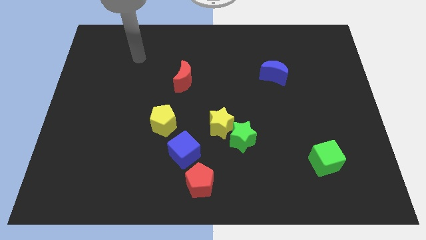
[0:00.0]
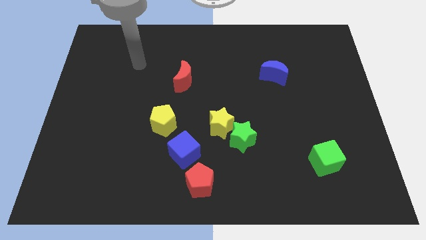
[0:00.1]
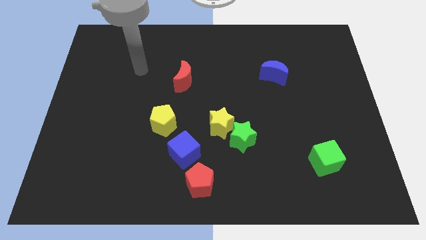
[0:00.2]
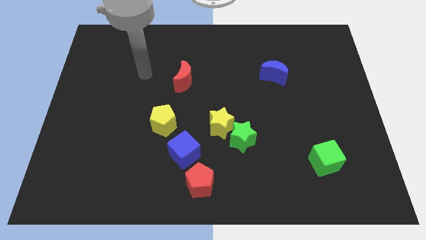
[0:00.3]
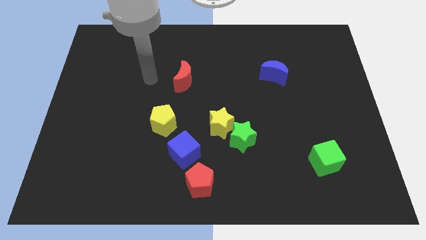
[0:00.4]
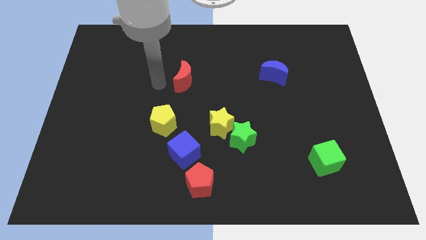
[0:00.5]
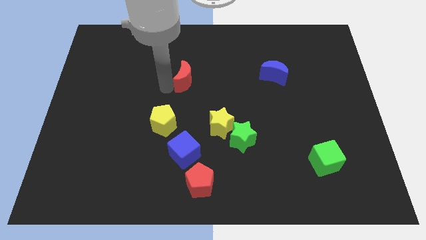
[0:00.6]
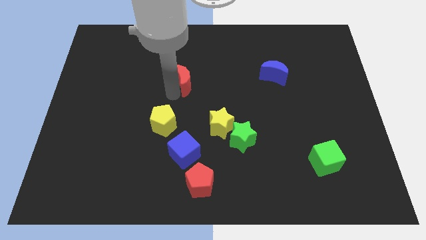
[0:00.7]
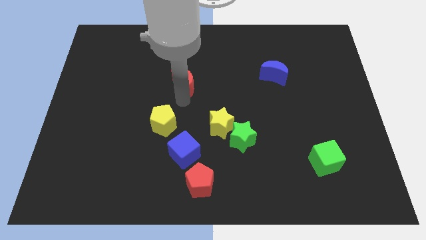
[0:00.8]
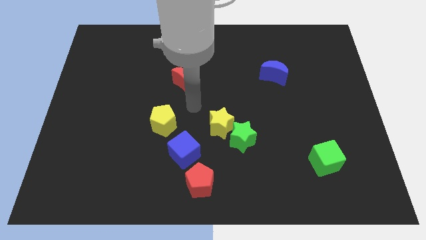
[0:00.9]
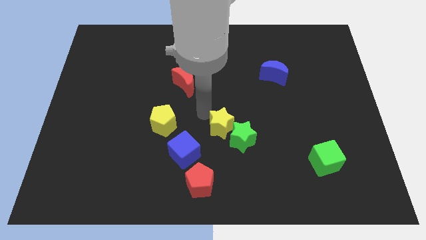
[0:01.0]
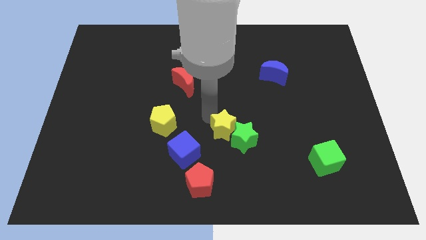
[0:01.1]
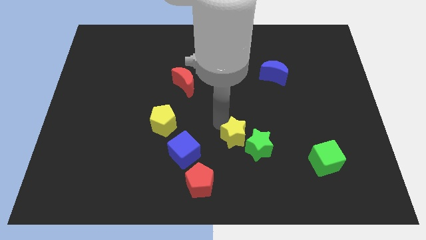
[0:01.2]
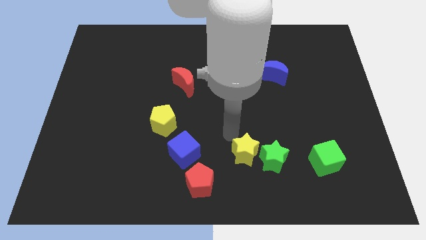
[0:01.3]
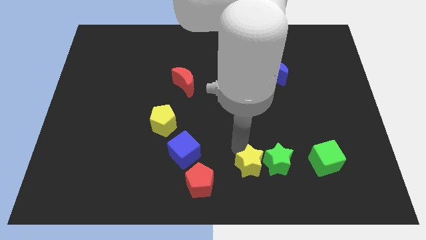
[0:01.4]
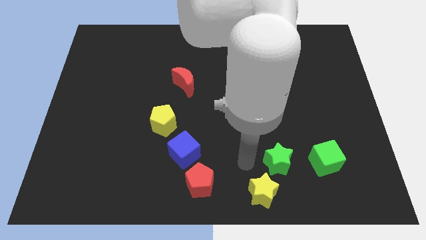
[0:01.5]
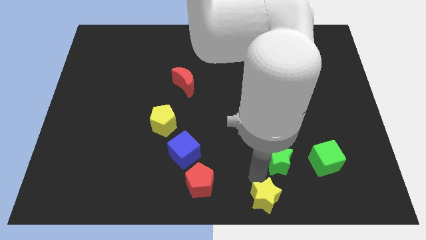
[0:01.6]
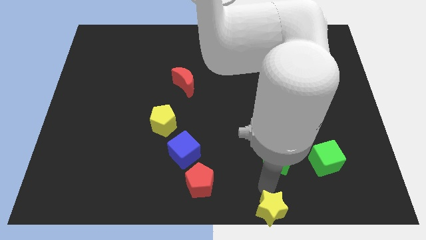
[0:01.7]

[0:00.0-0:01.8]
pull the green star apart from the yellow star

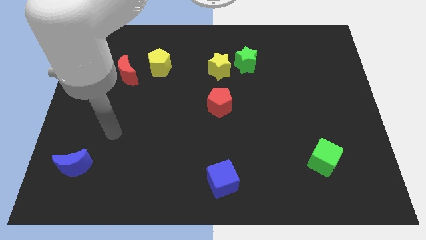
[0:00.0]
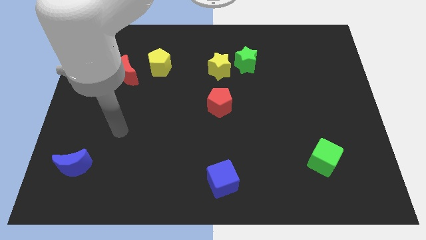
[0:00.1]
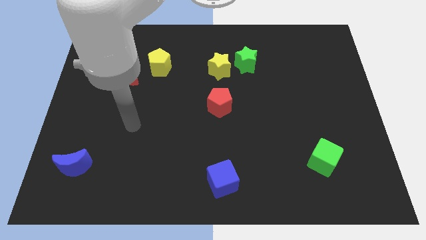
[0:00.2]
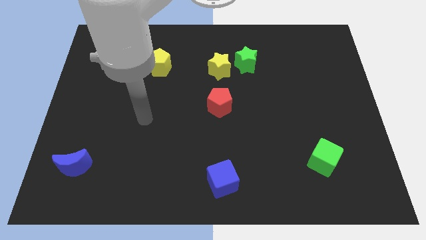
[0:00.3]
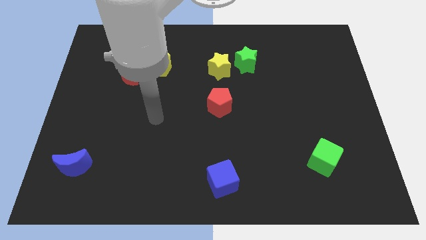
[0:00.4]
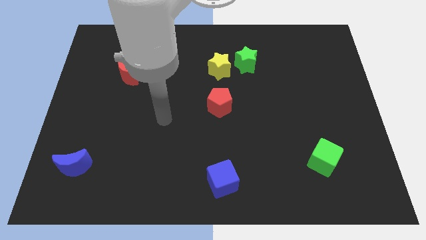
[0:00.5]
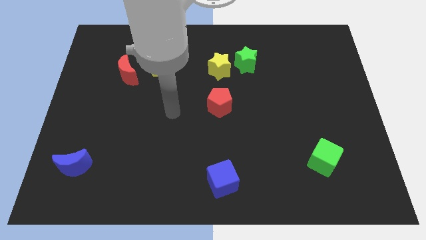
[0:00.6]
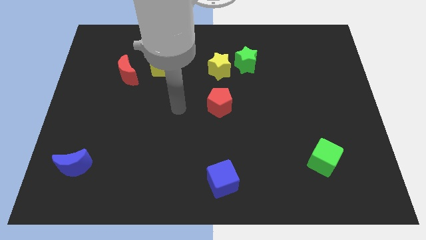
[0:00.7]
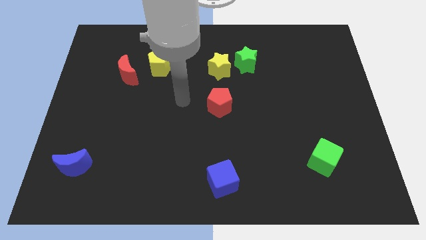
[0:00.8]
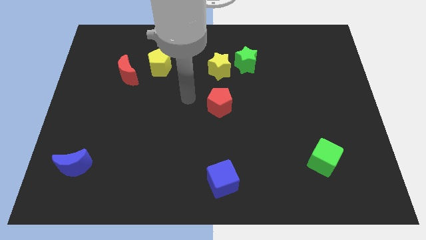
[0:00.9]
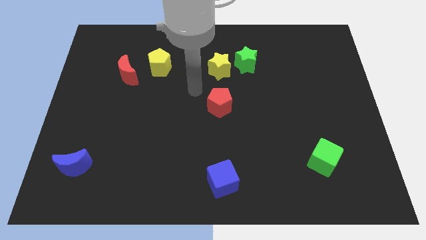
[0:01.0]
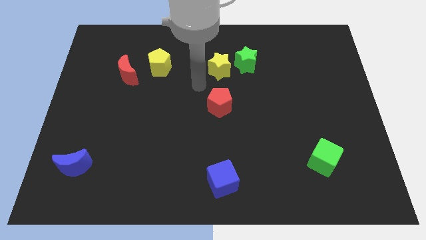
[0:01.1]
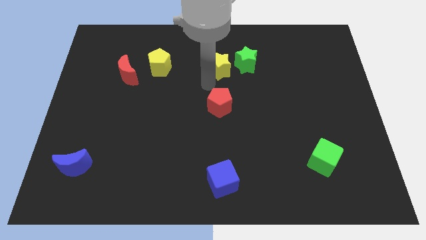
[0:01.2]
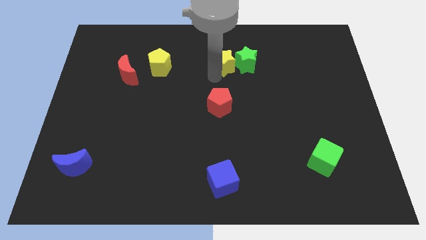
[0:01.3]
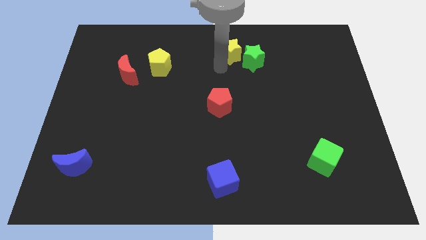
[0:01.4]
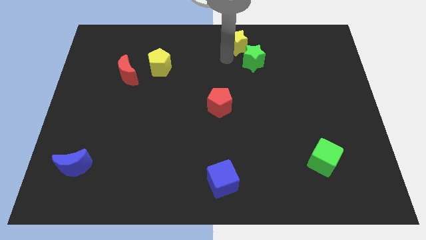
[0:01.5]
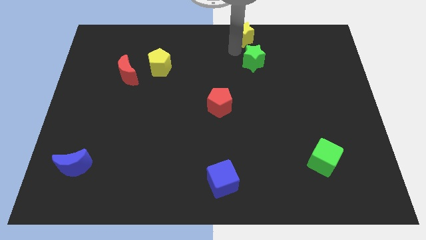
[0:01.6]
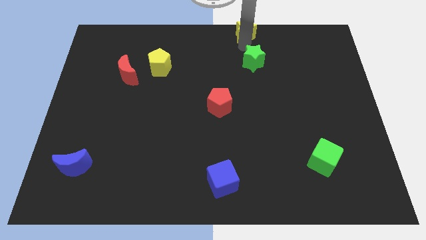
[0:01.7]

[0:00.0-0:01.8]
move the green star away from the yellow star

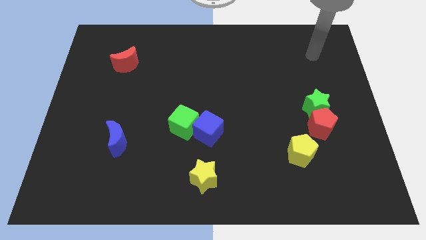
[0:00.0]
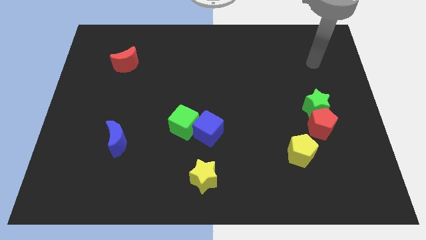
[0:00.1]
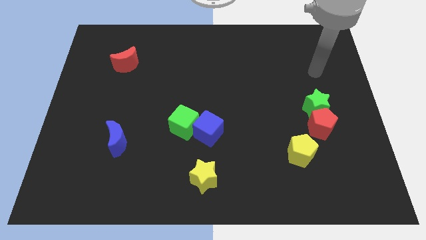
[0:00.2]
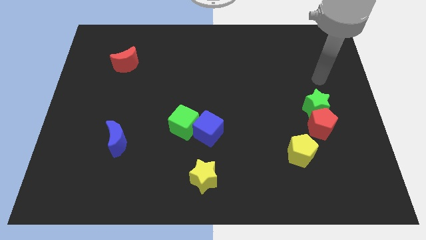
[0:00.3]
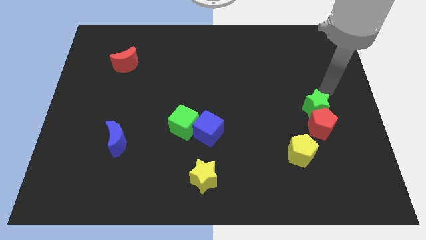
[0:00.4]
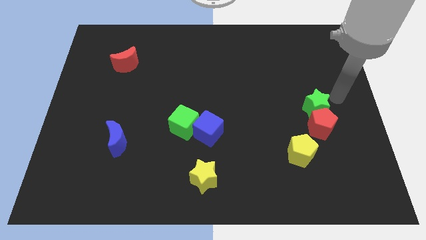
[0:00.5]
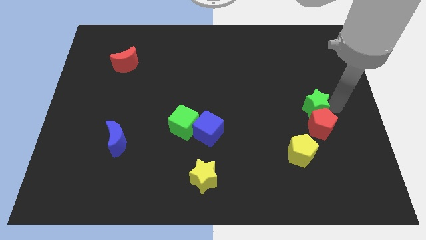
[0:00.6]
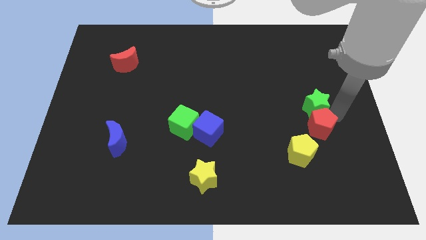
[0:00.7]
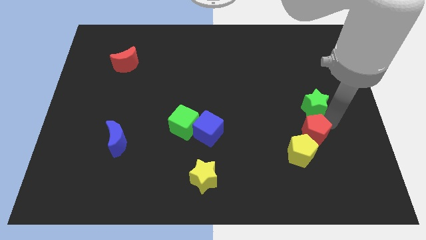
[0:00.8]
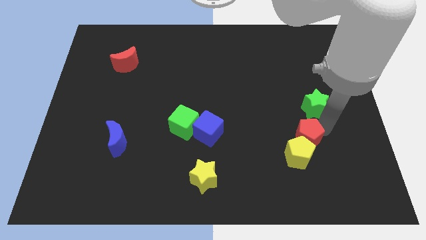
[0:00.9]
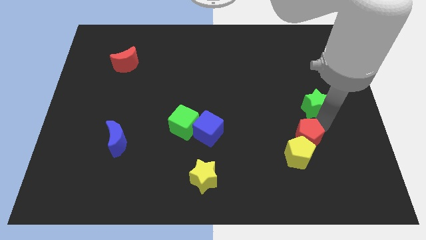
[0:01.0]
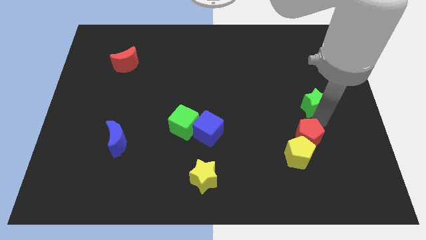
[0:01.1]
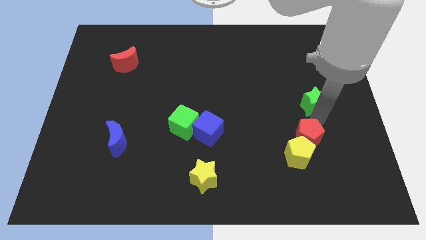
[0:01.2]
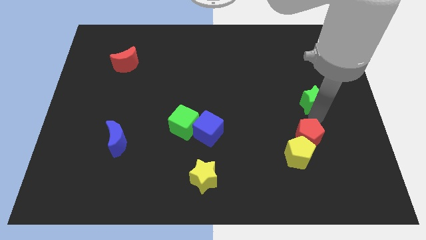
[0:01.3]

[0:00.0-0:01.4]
pull the green star apart from the red pentagon

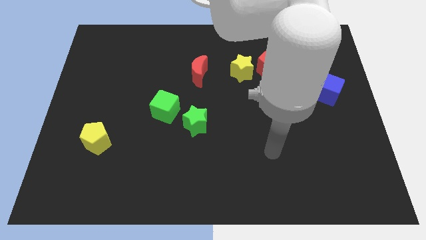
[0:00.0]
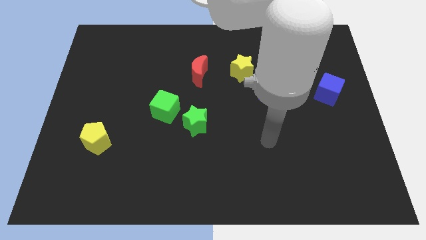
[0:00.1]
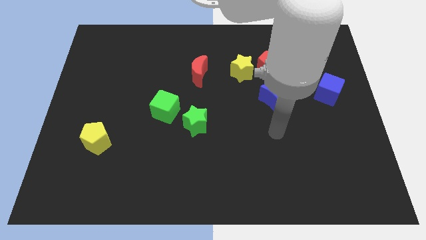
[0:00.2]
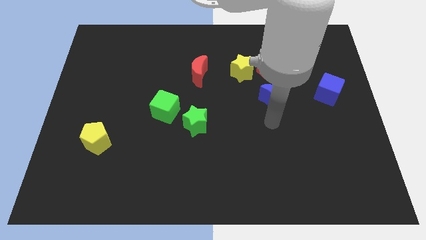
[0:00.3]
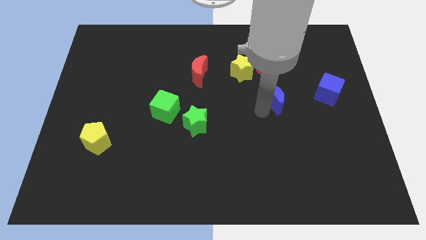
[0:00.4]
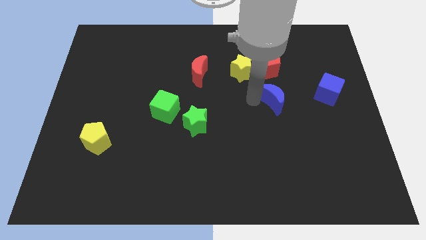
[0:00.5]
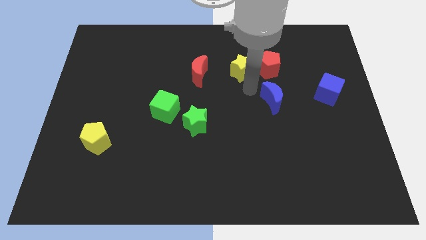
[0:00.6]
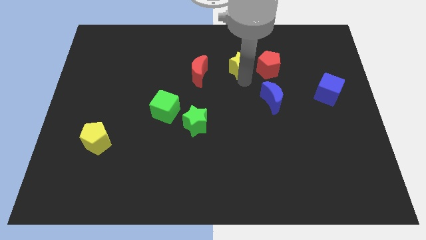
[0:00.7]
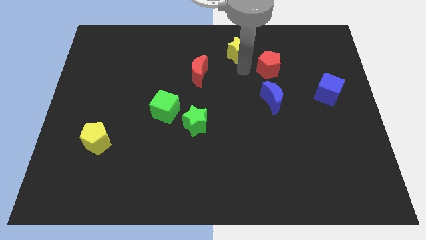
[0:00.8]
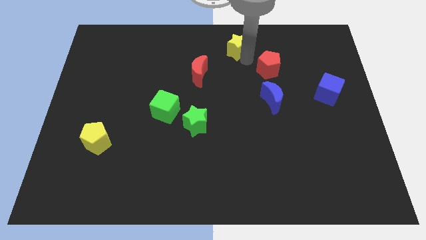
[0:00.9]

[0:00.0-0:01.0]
separate the red pentagon from the yellow star

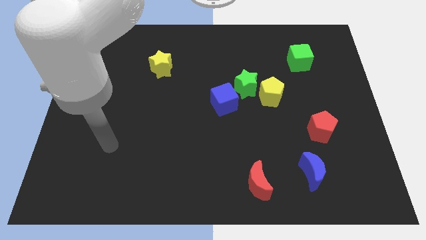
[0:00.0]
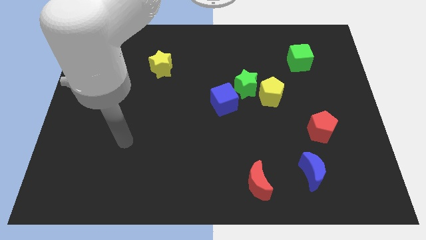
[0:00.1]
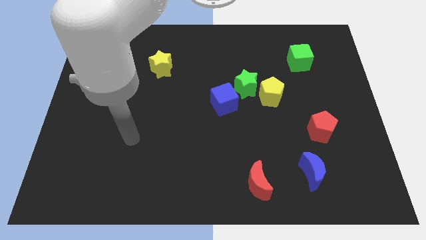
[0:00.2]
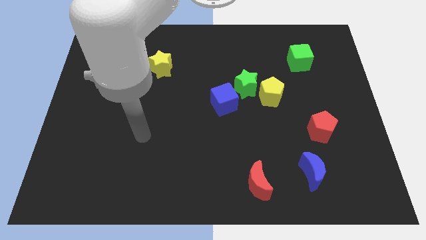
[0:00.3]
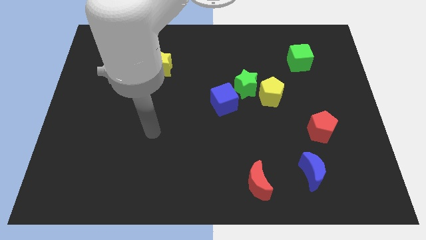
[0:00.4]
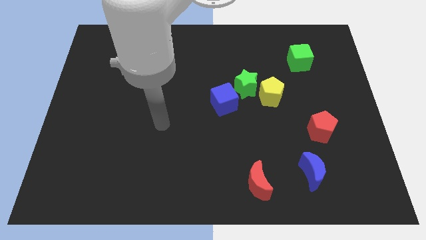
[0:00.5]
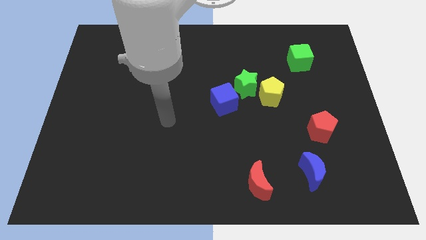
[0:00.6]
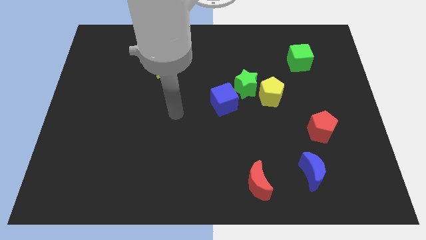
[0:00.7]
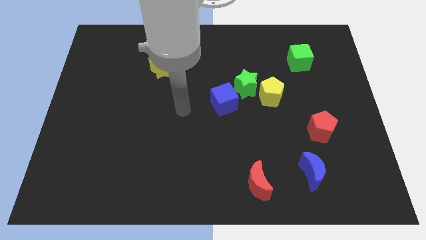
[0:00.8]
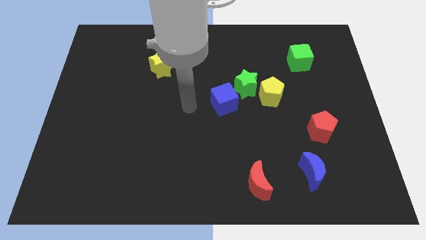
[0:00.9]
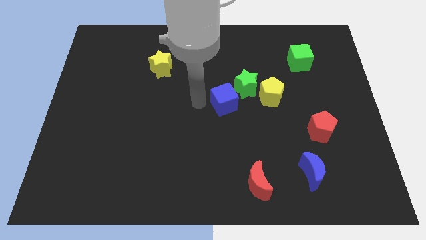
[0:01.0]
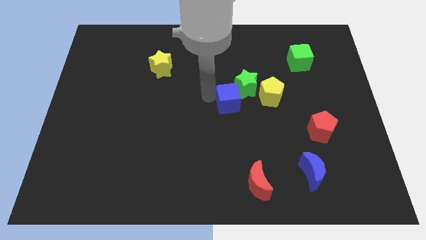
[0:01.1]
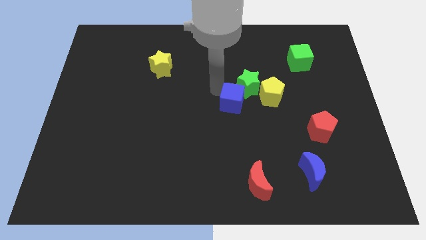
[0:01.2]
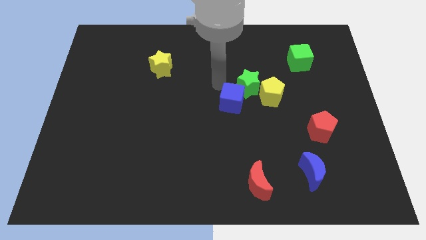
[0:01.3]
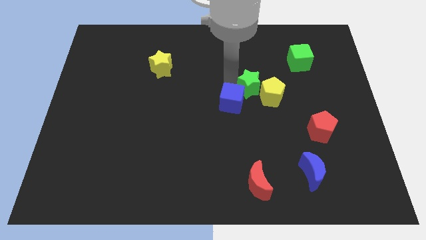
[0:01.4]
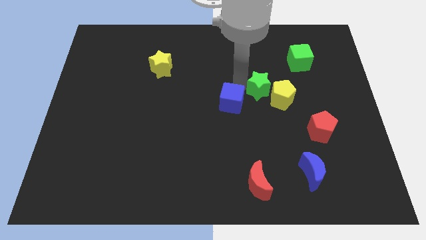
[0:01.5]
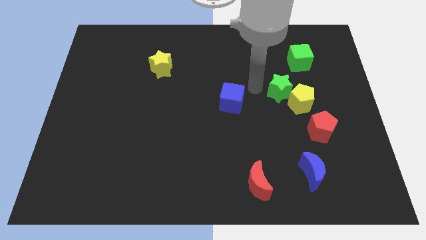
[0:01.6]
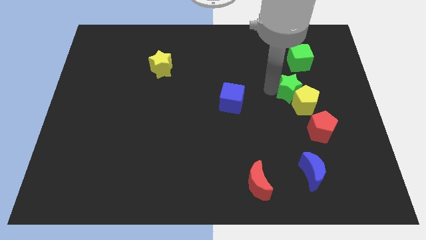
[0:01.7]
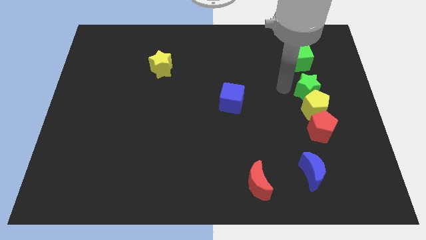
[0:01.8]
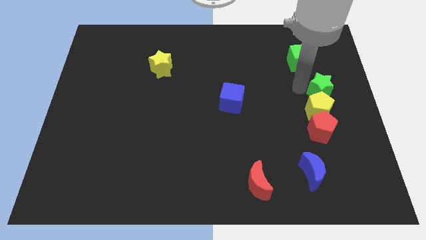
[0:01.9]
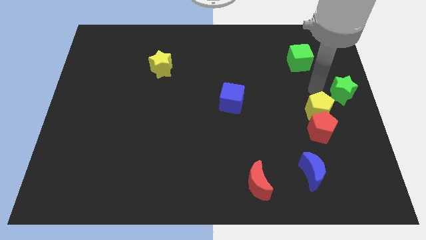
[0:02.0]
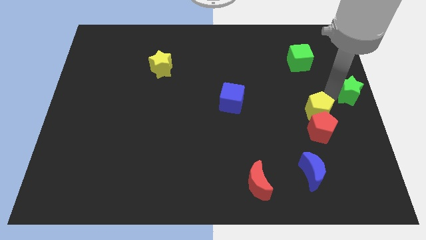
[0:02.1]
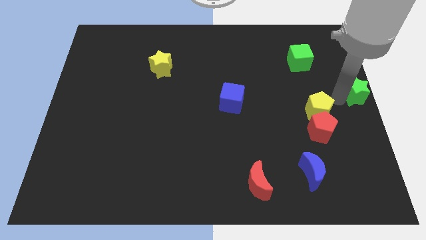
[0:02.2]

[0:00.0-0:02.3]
separate the yellow pentagon from the green star

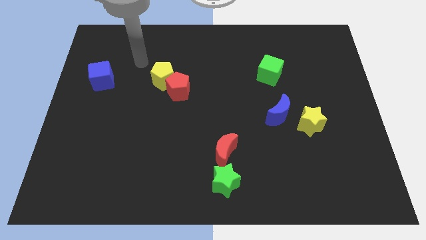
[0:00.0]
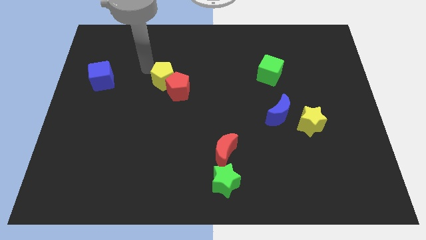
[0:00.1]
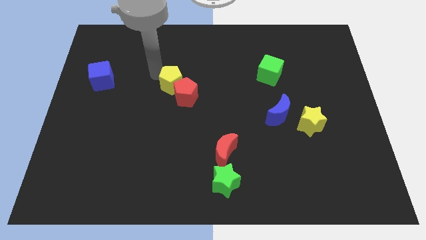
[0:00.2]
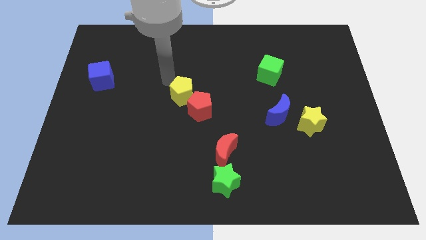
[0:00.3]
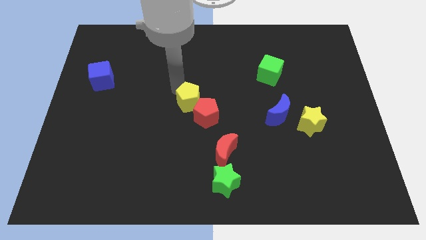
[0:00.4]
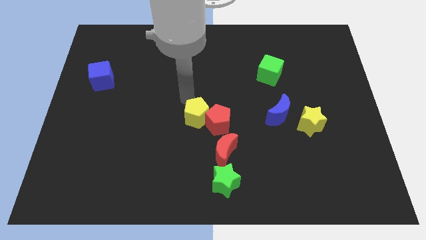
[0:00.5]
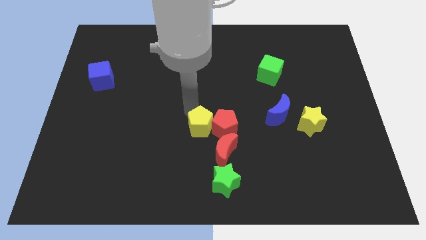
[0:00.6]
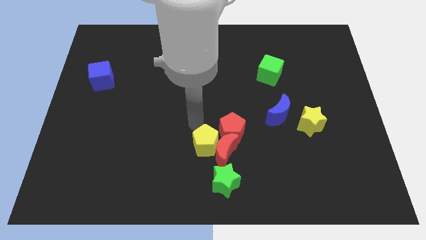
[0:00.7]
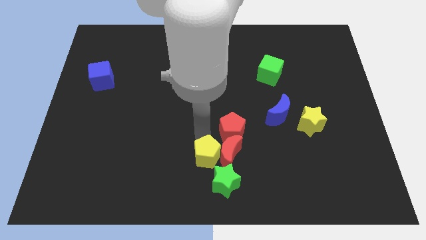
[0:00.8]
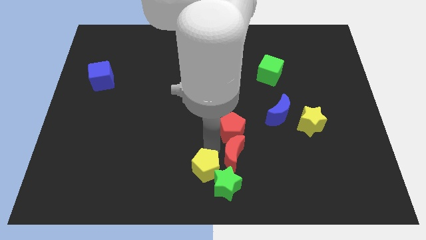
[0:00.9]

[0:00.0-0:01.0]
pull the red pentagon apart from the yellow pentagon
